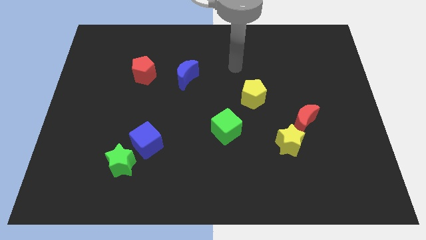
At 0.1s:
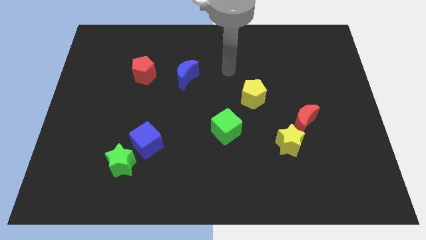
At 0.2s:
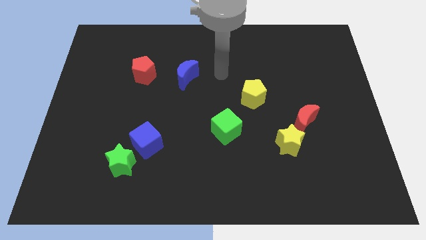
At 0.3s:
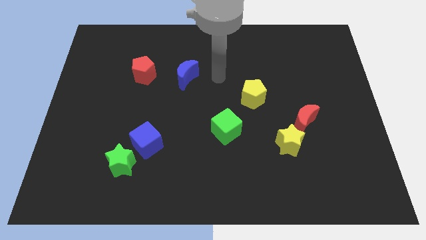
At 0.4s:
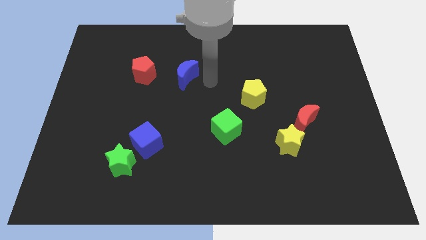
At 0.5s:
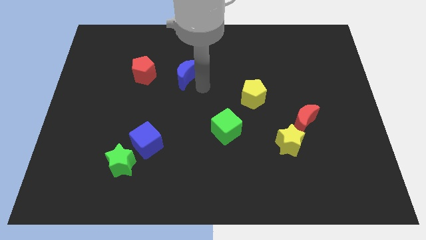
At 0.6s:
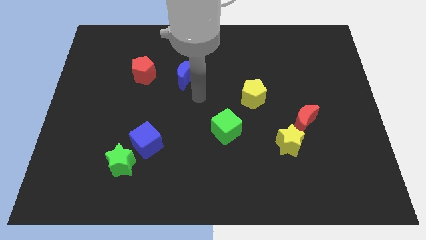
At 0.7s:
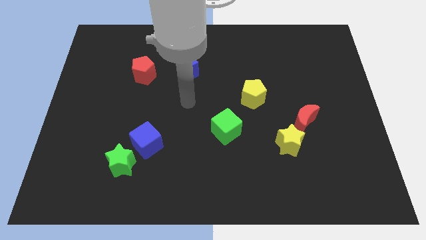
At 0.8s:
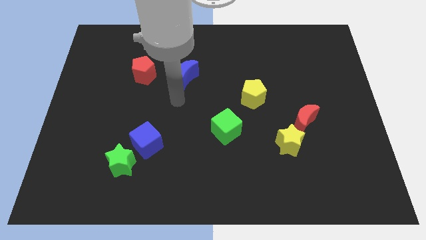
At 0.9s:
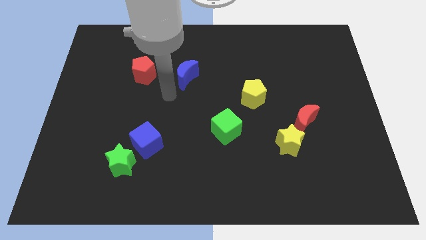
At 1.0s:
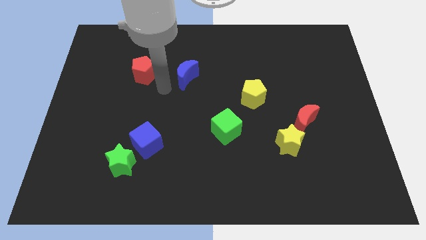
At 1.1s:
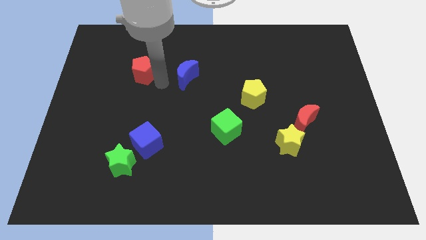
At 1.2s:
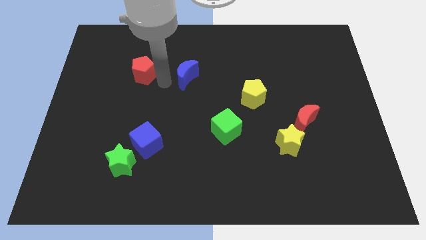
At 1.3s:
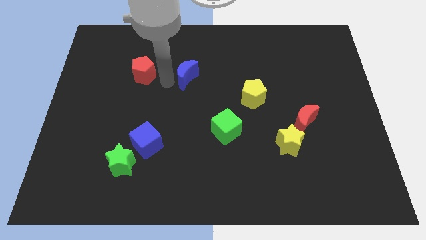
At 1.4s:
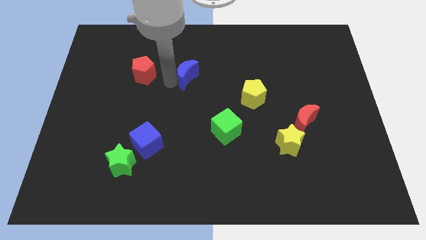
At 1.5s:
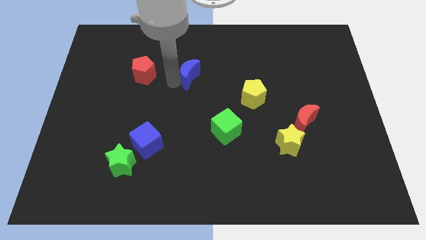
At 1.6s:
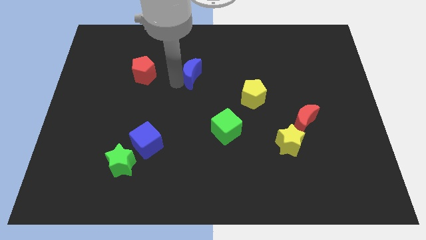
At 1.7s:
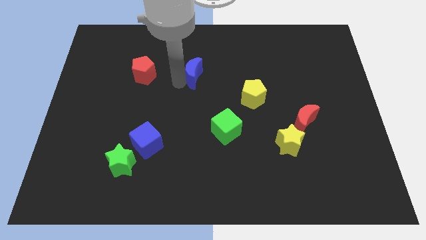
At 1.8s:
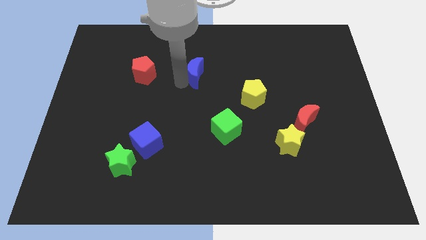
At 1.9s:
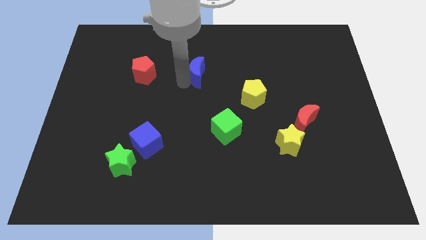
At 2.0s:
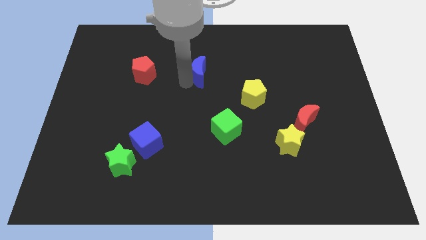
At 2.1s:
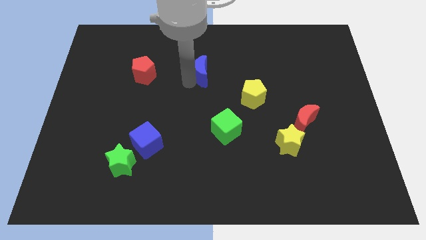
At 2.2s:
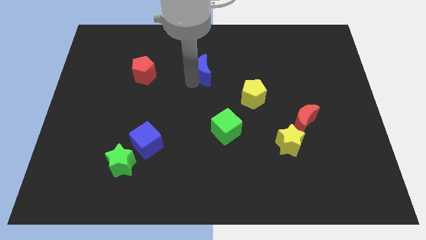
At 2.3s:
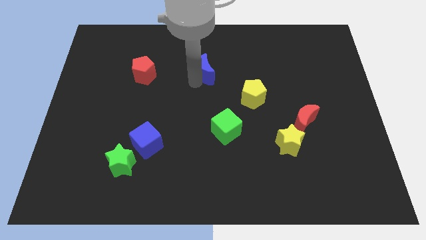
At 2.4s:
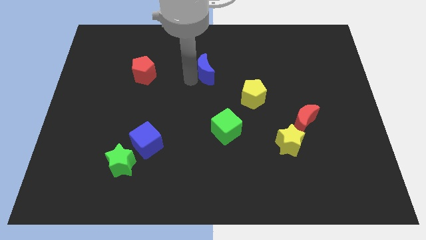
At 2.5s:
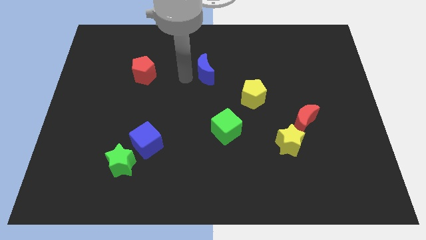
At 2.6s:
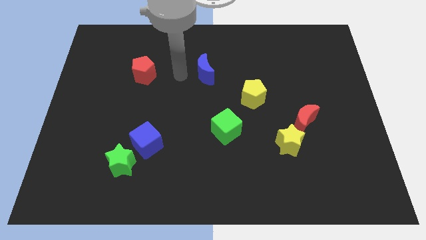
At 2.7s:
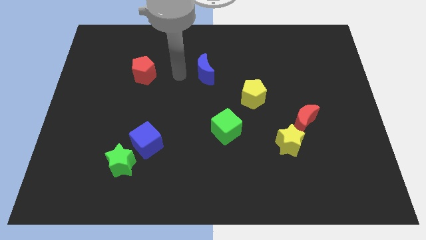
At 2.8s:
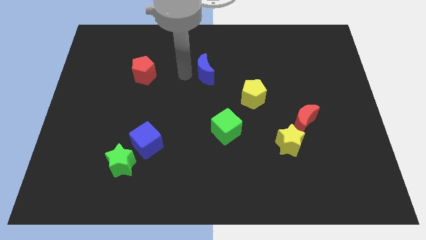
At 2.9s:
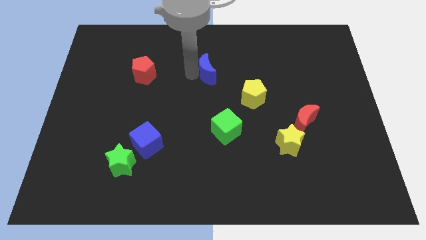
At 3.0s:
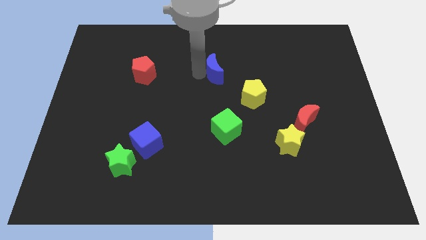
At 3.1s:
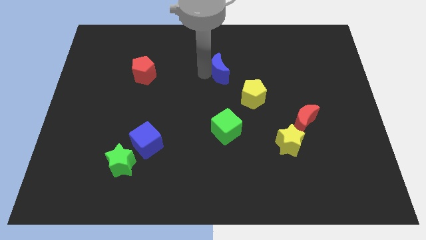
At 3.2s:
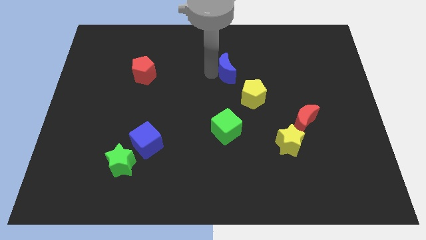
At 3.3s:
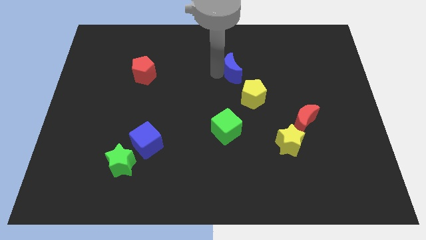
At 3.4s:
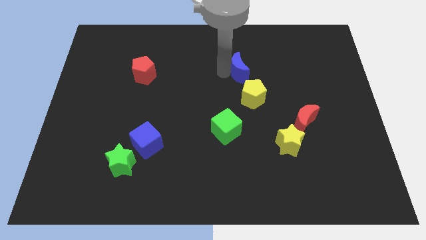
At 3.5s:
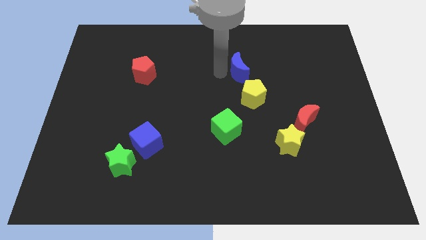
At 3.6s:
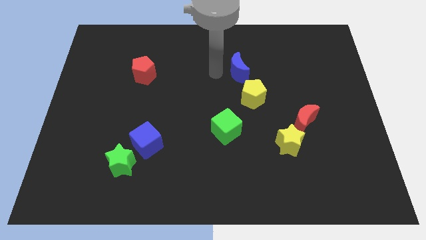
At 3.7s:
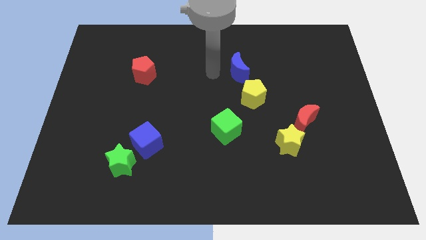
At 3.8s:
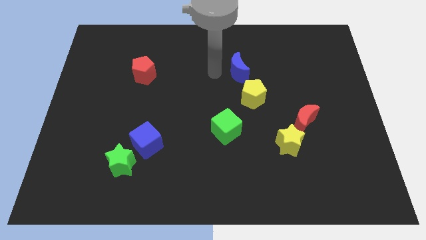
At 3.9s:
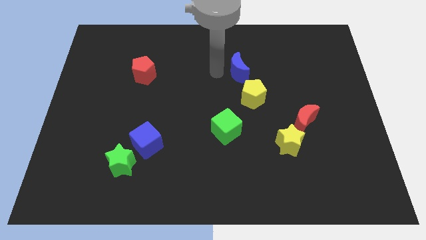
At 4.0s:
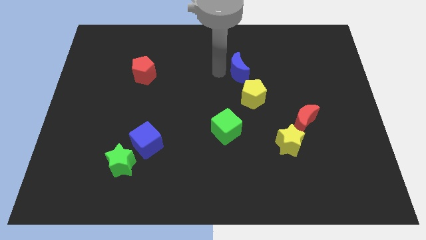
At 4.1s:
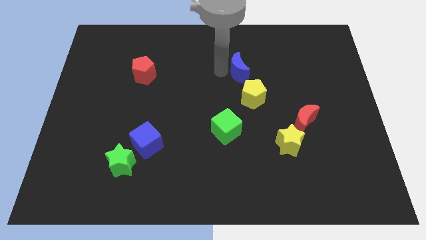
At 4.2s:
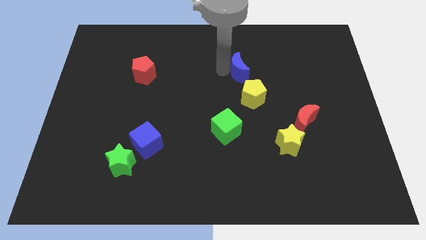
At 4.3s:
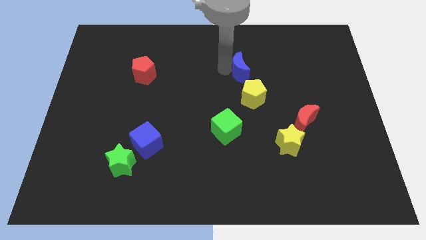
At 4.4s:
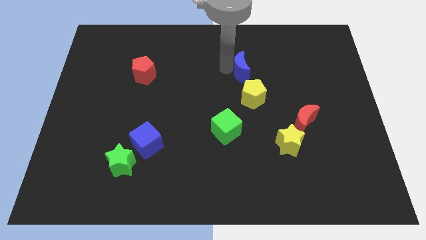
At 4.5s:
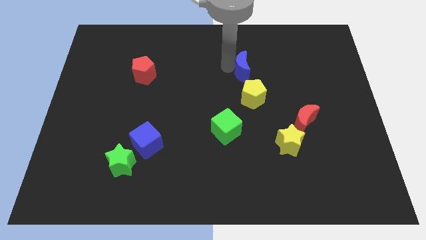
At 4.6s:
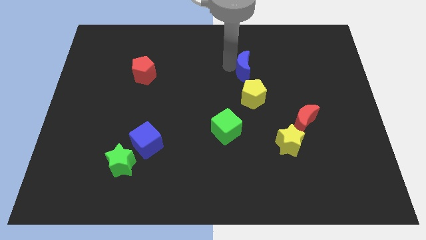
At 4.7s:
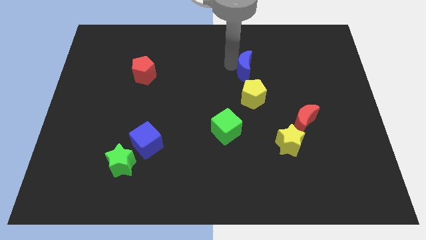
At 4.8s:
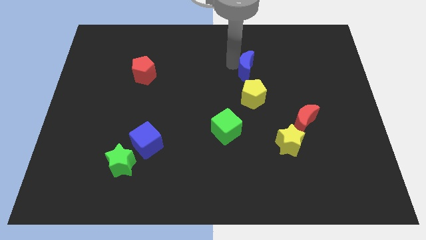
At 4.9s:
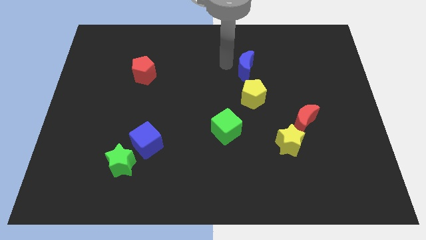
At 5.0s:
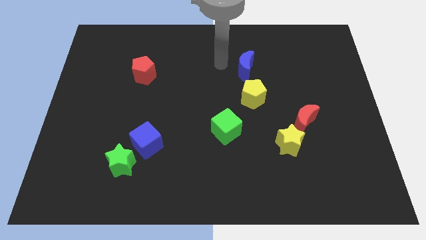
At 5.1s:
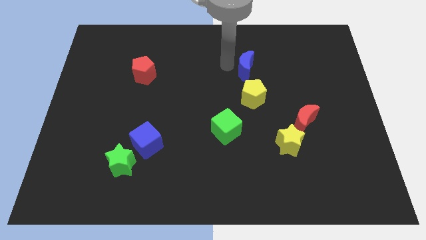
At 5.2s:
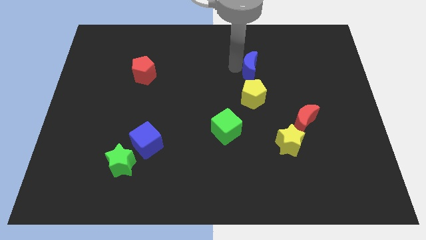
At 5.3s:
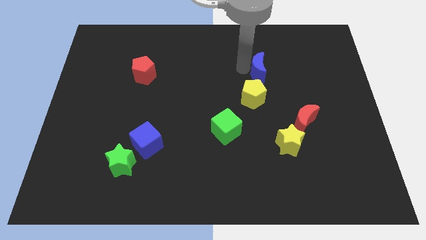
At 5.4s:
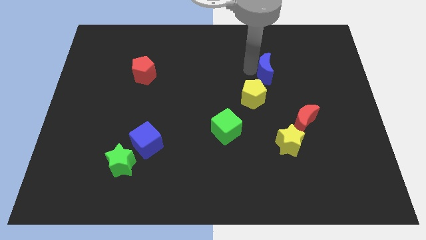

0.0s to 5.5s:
move the blue moon right

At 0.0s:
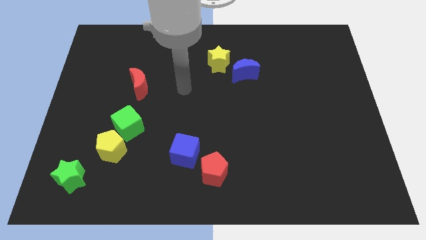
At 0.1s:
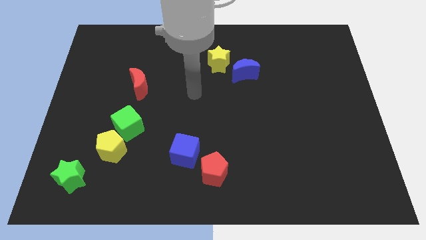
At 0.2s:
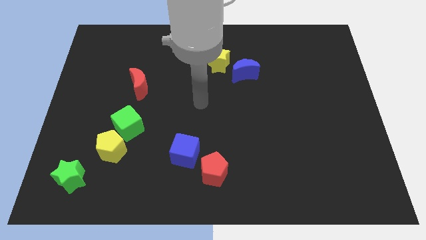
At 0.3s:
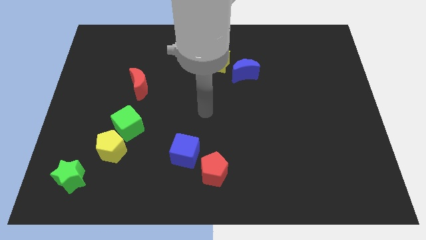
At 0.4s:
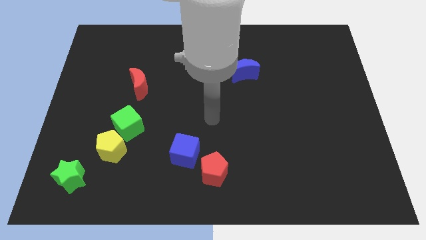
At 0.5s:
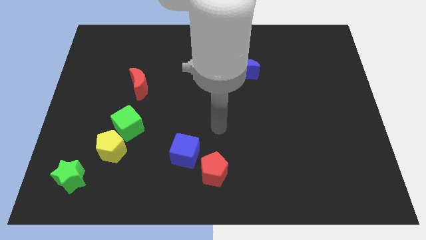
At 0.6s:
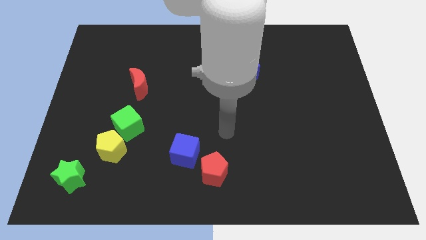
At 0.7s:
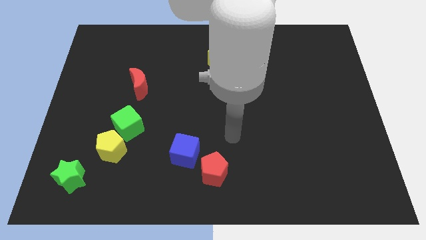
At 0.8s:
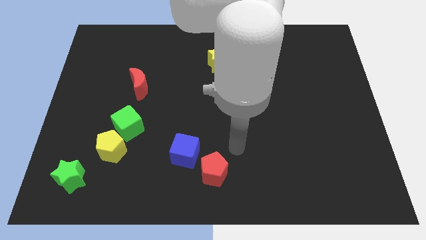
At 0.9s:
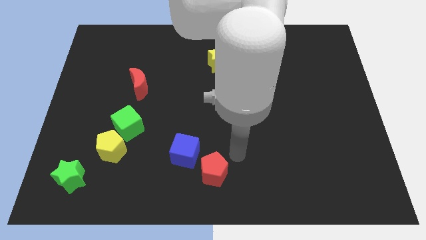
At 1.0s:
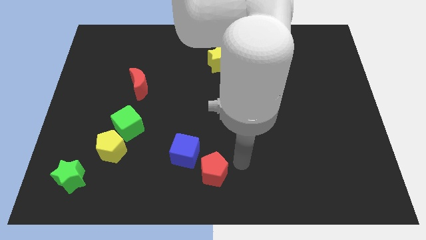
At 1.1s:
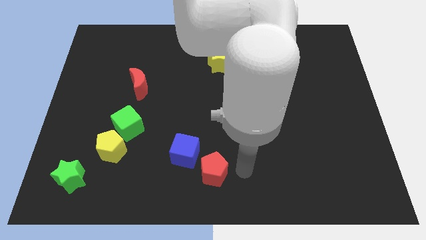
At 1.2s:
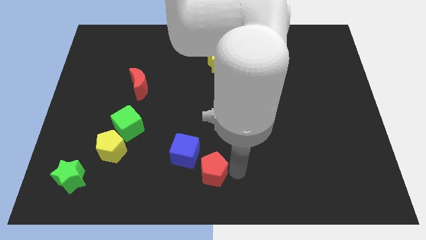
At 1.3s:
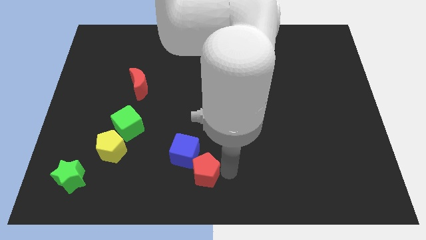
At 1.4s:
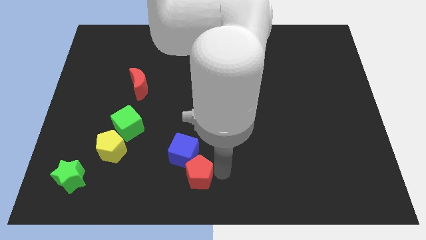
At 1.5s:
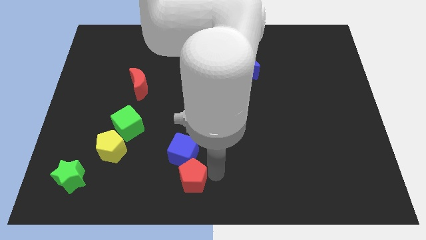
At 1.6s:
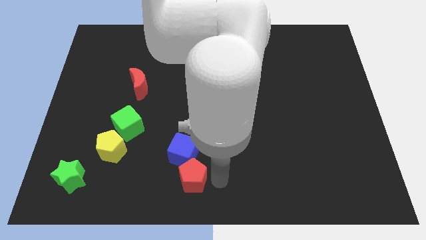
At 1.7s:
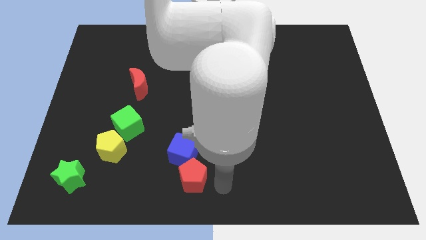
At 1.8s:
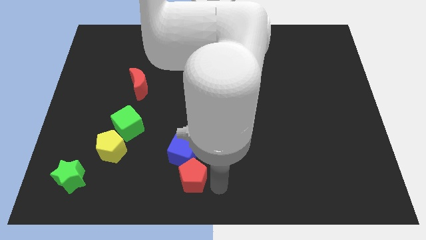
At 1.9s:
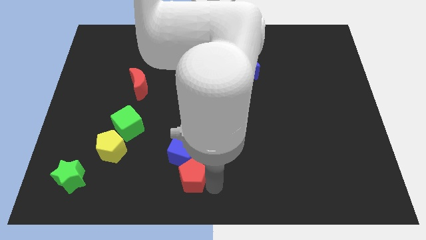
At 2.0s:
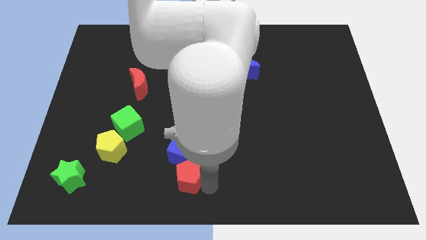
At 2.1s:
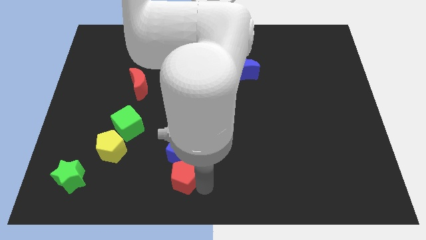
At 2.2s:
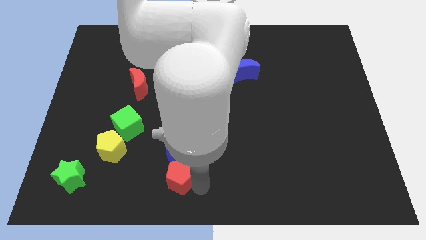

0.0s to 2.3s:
slide the red pentagon a little to the left
